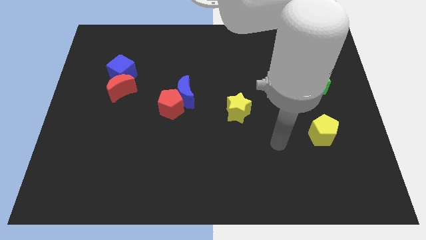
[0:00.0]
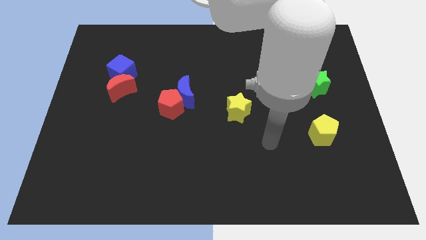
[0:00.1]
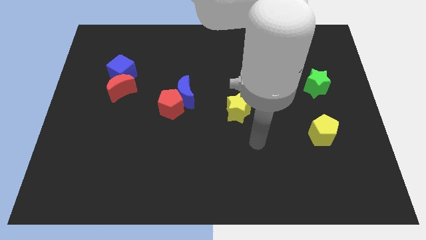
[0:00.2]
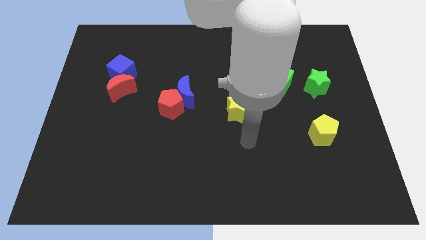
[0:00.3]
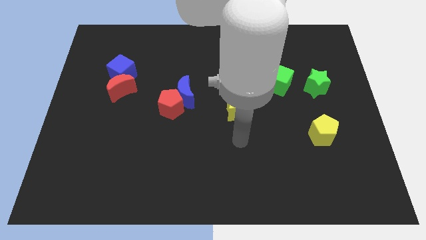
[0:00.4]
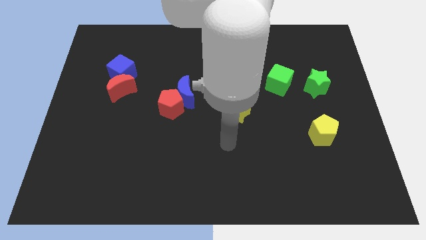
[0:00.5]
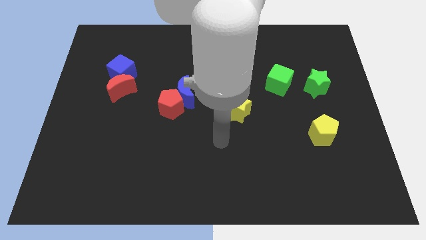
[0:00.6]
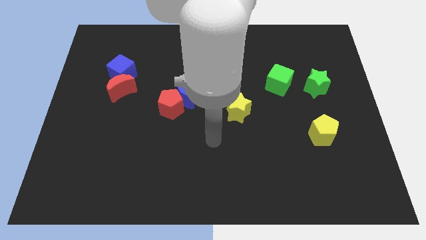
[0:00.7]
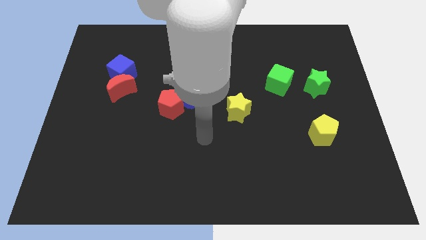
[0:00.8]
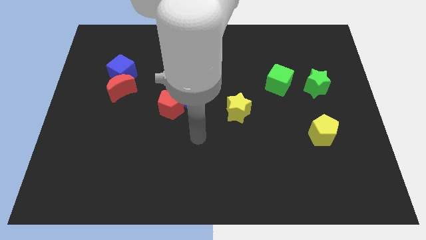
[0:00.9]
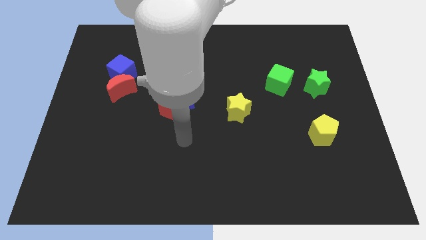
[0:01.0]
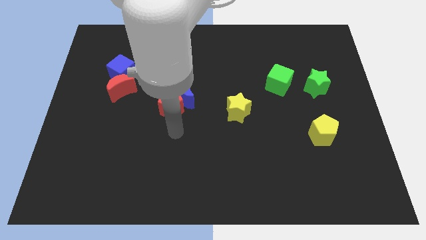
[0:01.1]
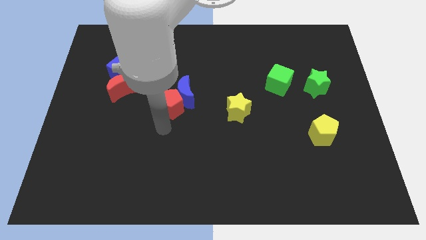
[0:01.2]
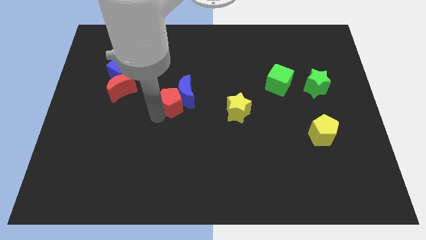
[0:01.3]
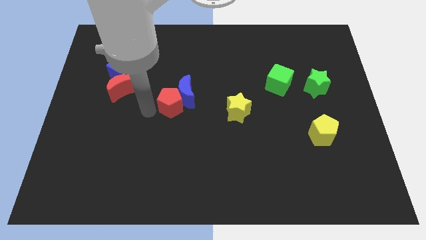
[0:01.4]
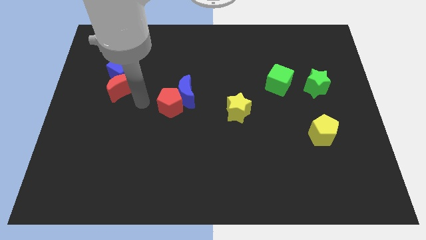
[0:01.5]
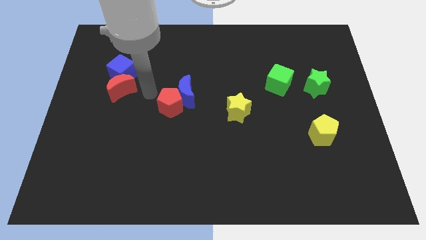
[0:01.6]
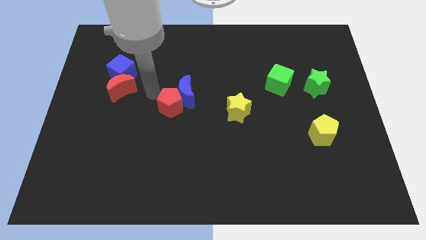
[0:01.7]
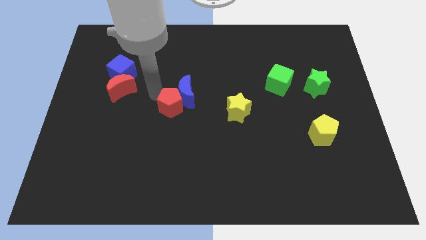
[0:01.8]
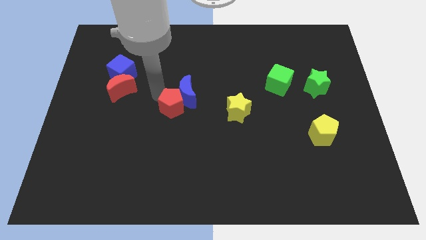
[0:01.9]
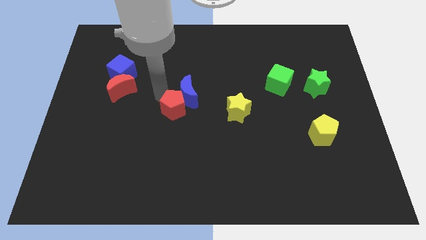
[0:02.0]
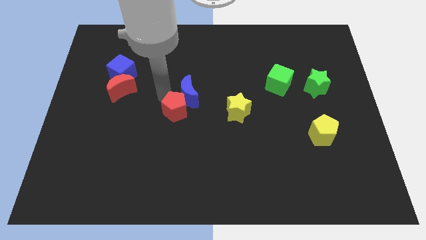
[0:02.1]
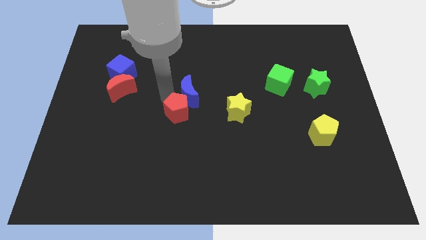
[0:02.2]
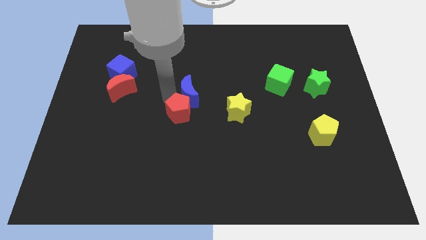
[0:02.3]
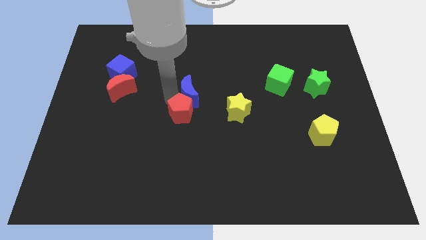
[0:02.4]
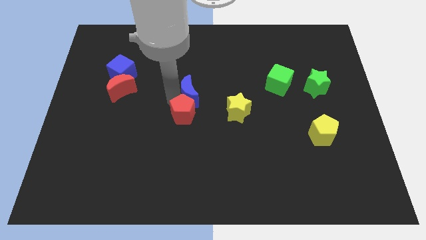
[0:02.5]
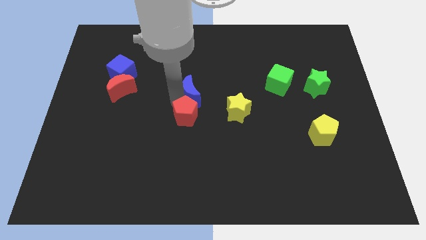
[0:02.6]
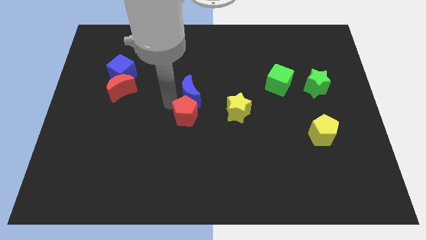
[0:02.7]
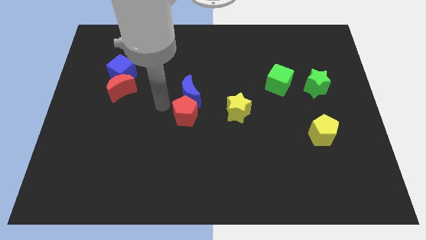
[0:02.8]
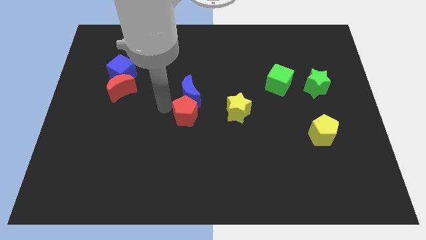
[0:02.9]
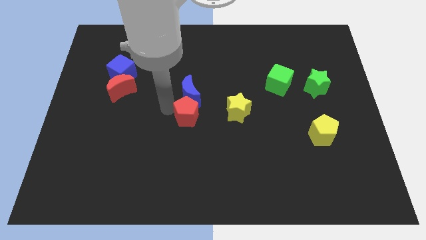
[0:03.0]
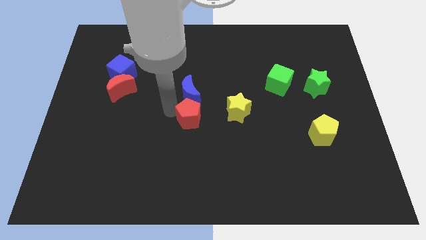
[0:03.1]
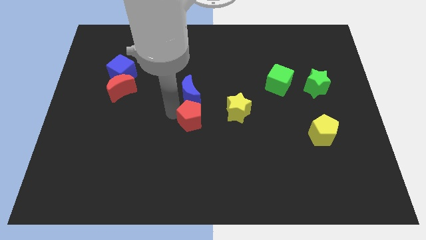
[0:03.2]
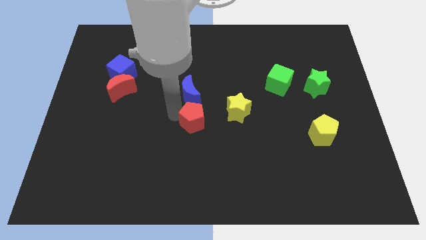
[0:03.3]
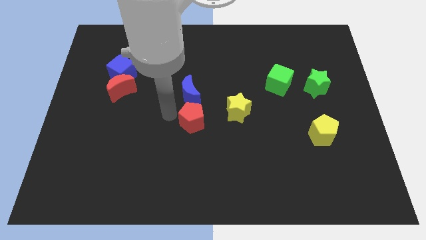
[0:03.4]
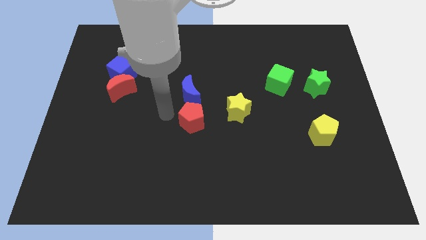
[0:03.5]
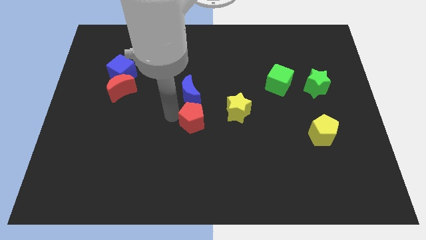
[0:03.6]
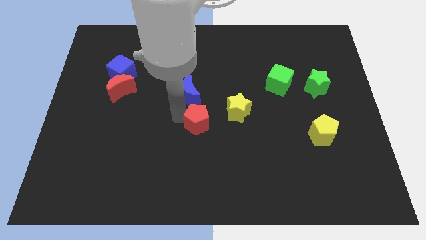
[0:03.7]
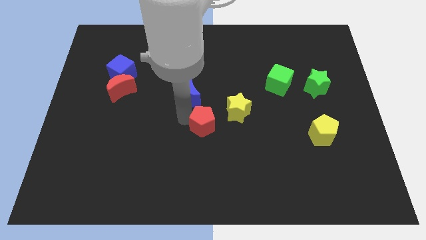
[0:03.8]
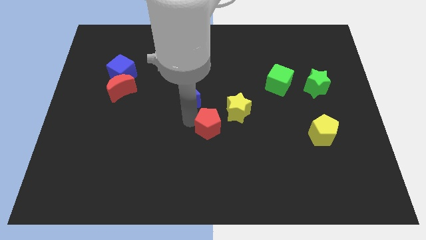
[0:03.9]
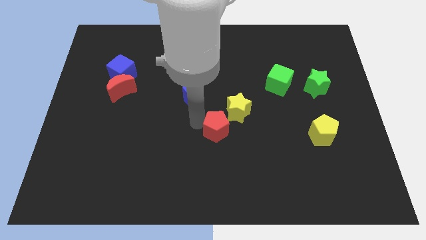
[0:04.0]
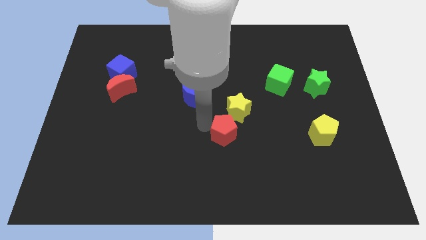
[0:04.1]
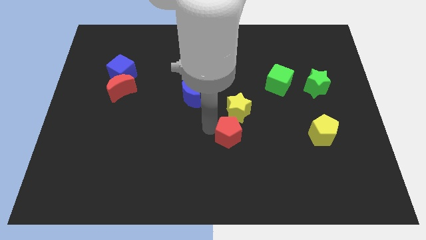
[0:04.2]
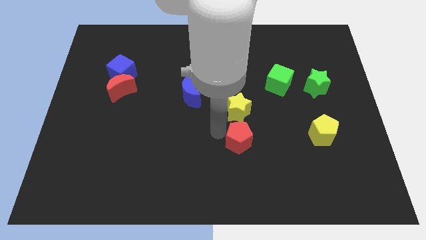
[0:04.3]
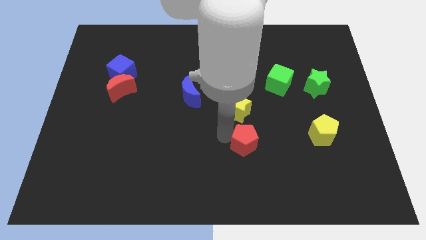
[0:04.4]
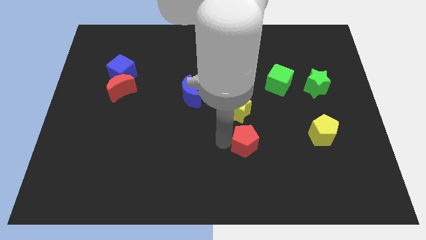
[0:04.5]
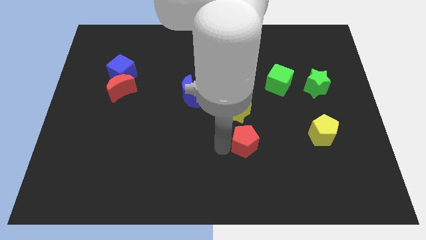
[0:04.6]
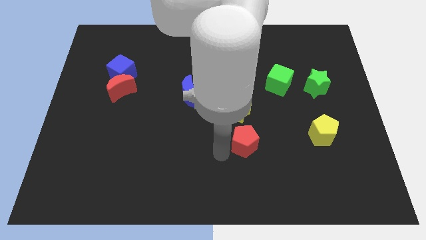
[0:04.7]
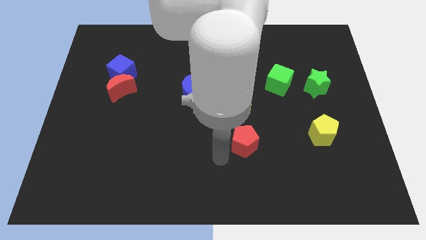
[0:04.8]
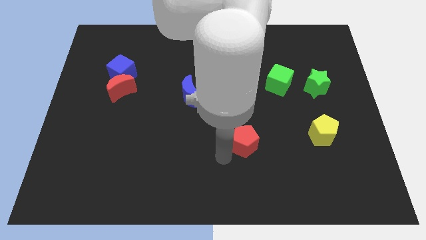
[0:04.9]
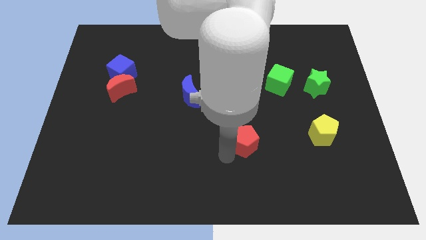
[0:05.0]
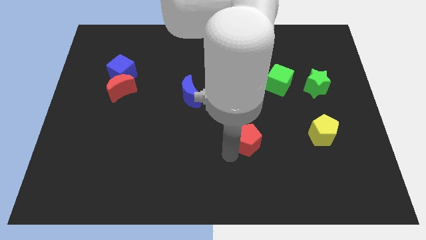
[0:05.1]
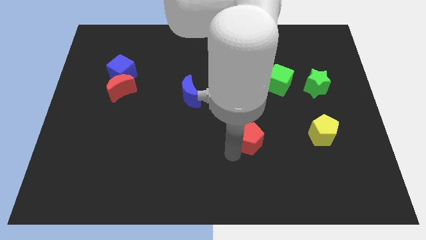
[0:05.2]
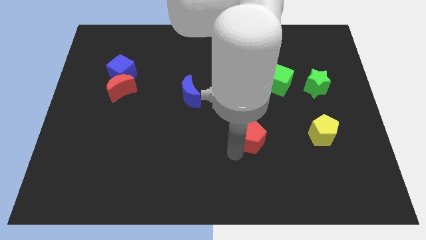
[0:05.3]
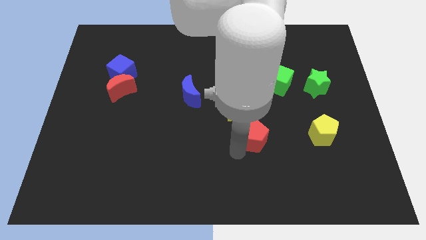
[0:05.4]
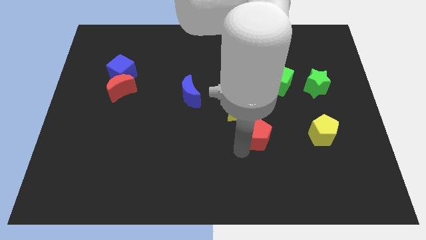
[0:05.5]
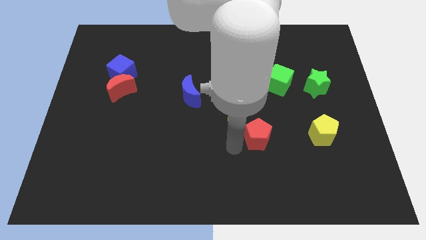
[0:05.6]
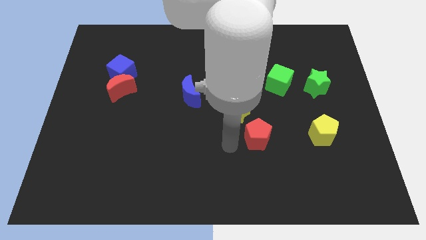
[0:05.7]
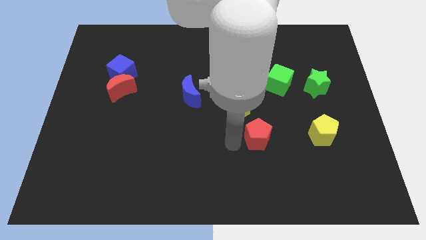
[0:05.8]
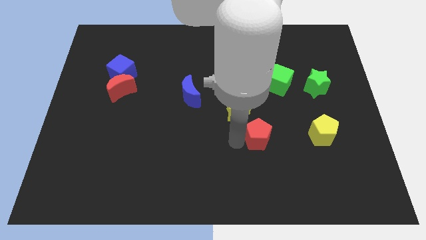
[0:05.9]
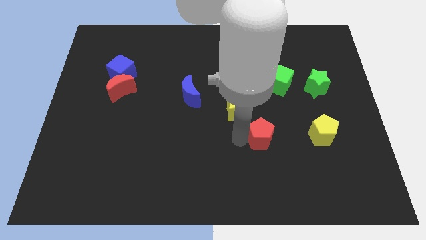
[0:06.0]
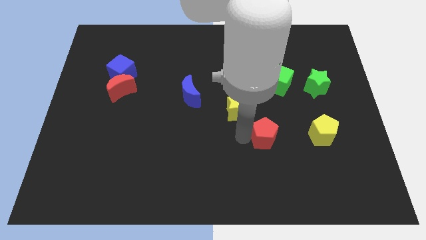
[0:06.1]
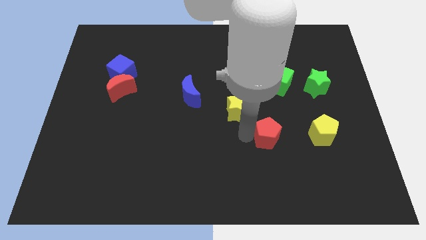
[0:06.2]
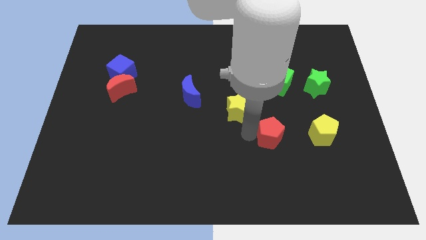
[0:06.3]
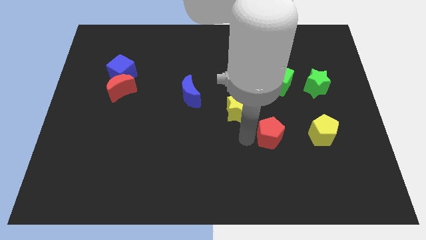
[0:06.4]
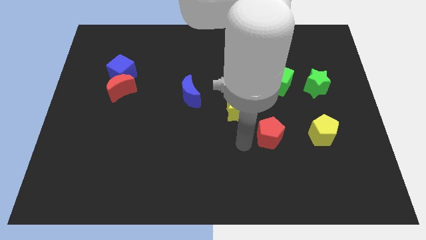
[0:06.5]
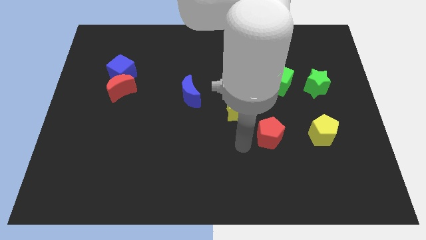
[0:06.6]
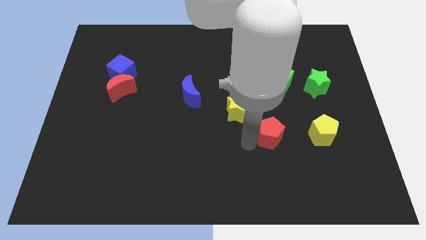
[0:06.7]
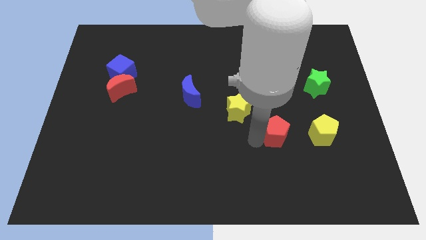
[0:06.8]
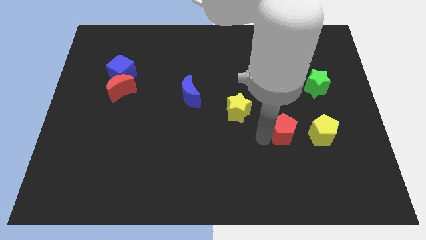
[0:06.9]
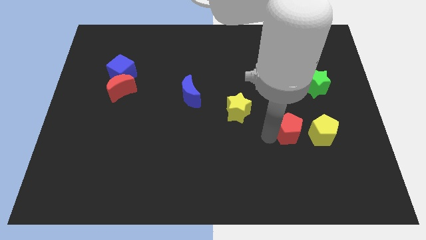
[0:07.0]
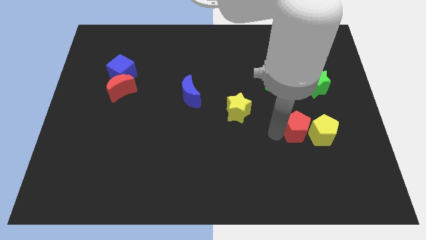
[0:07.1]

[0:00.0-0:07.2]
put the red pentagon close to the yellow pentagon
